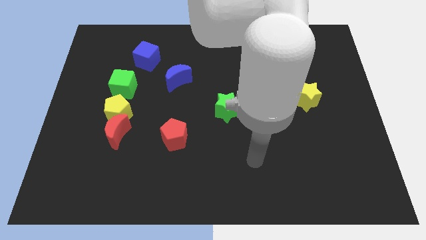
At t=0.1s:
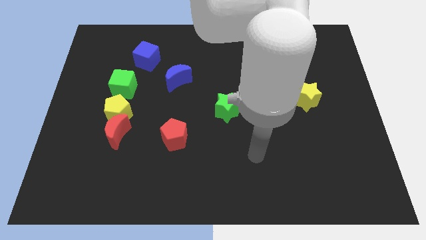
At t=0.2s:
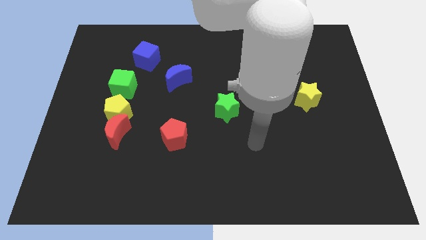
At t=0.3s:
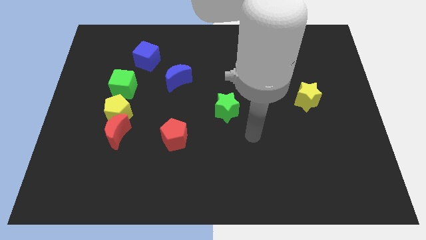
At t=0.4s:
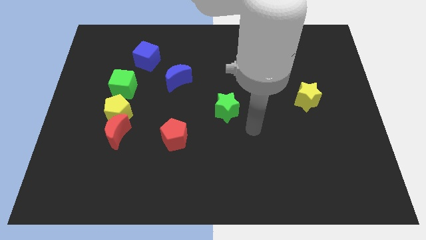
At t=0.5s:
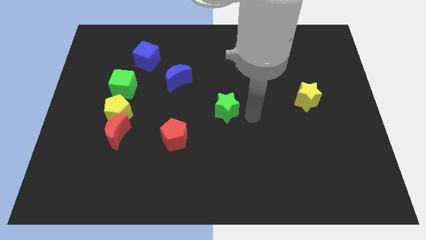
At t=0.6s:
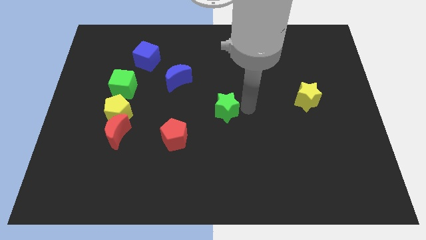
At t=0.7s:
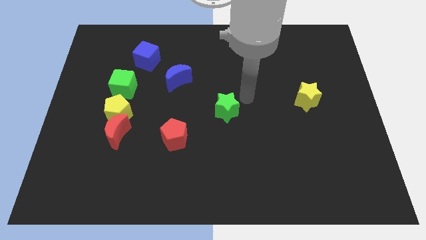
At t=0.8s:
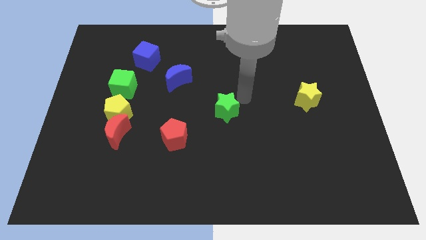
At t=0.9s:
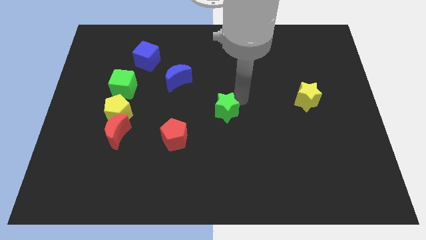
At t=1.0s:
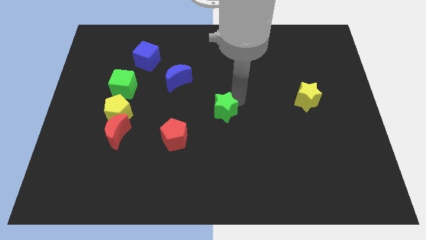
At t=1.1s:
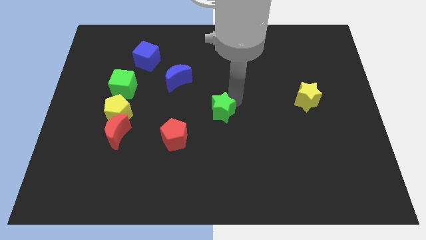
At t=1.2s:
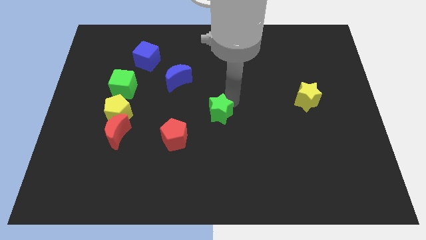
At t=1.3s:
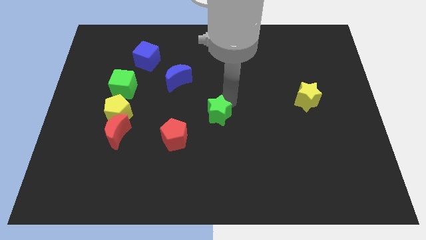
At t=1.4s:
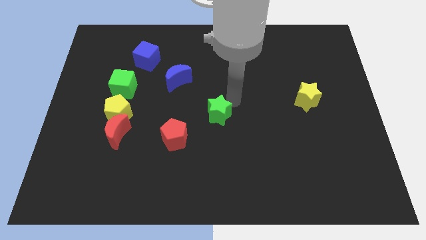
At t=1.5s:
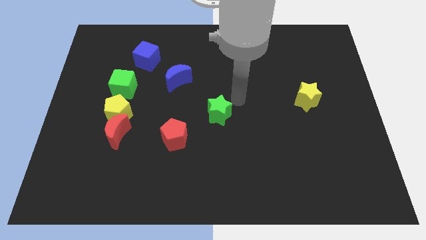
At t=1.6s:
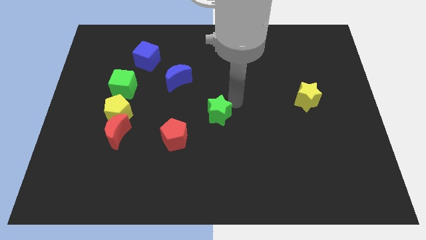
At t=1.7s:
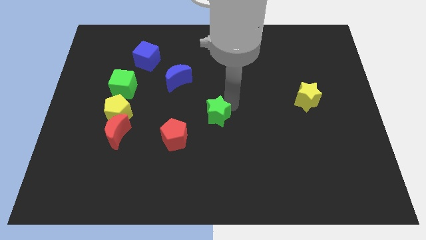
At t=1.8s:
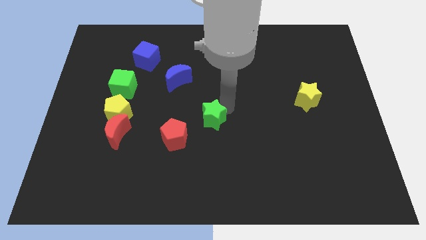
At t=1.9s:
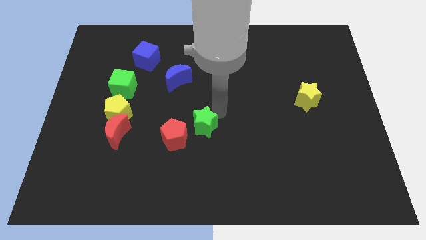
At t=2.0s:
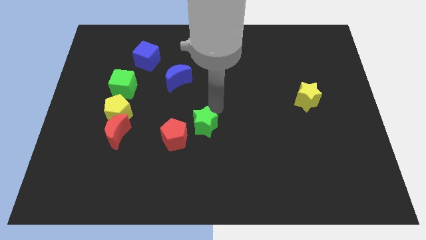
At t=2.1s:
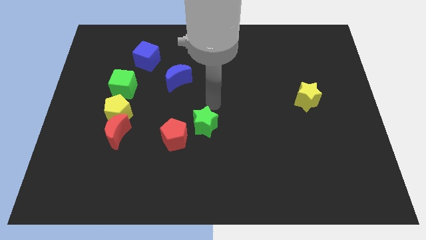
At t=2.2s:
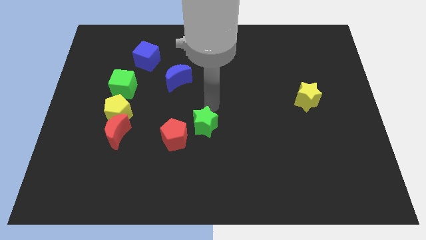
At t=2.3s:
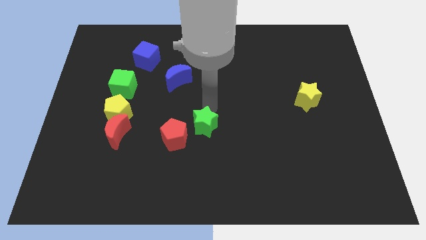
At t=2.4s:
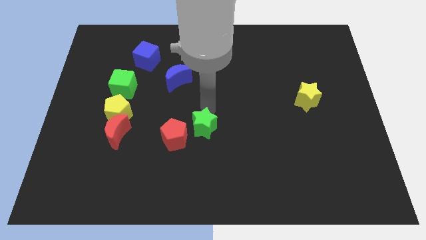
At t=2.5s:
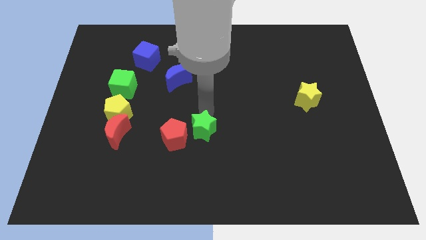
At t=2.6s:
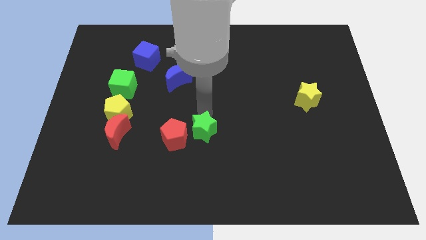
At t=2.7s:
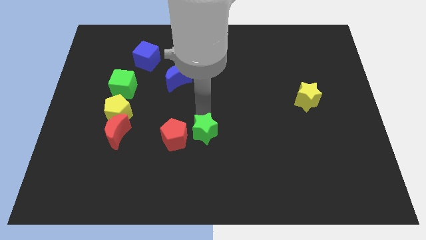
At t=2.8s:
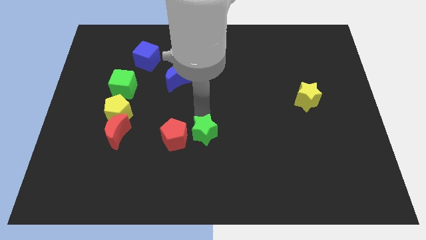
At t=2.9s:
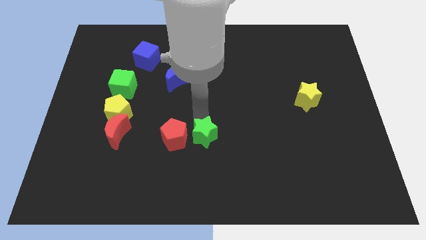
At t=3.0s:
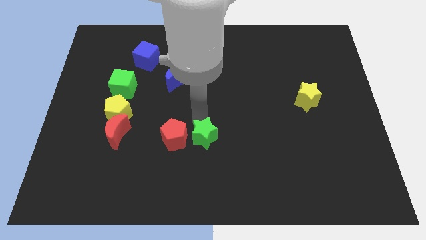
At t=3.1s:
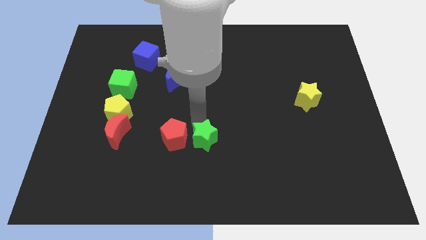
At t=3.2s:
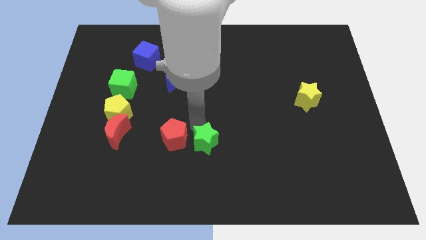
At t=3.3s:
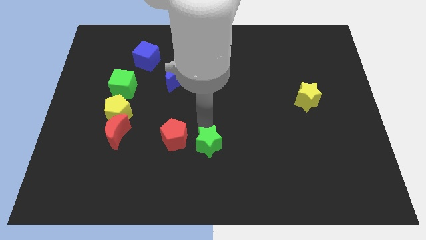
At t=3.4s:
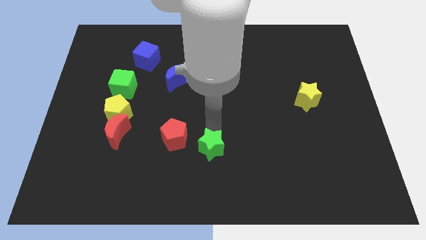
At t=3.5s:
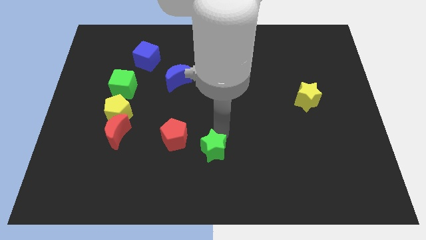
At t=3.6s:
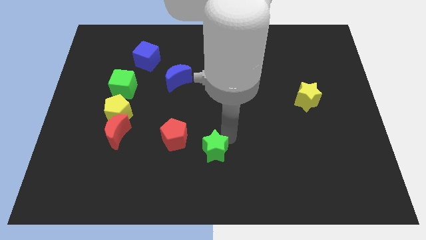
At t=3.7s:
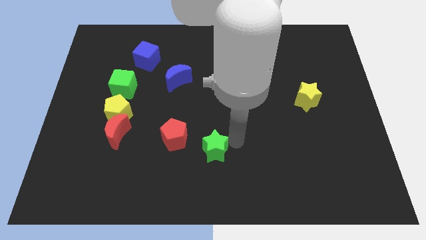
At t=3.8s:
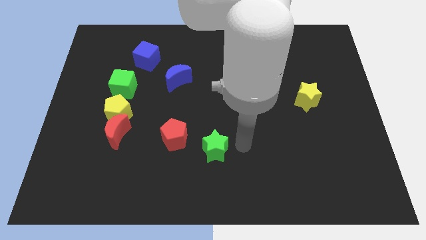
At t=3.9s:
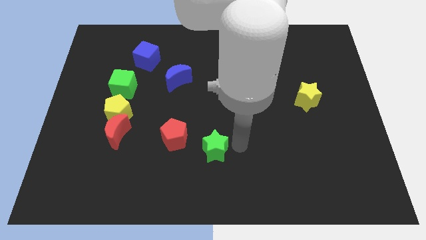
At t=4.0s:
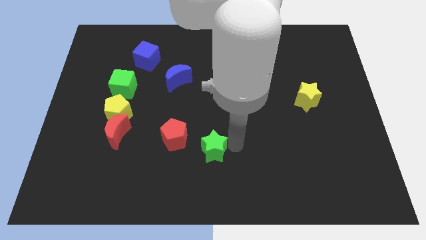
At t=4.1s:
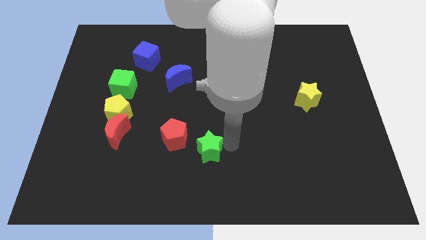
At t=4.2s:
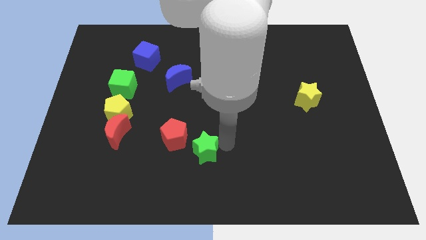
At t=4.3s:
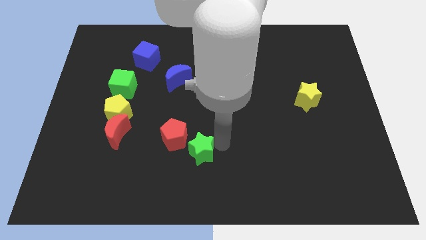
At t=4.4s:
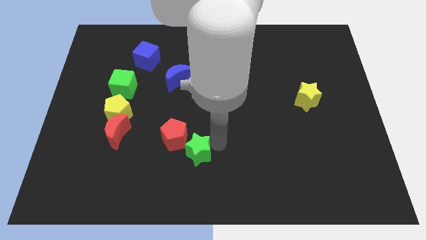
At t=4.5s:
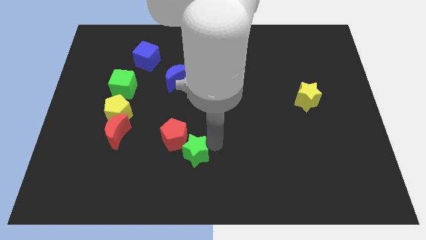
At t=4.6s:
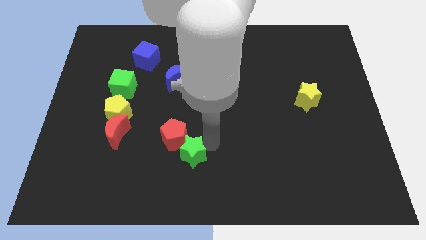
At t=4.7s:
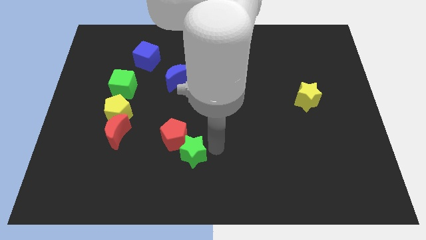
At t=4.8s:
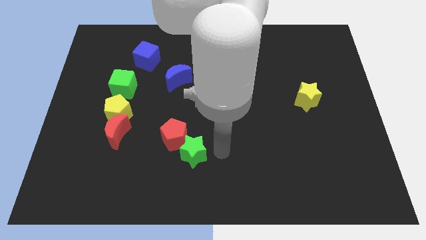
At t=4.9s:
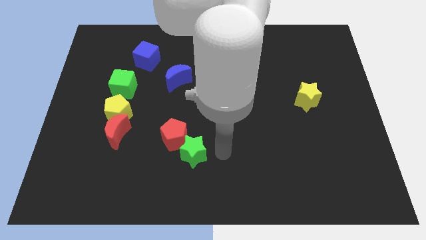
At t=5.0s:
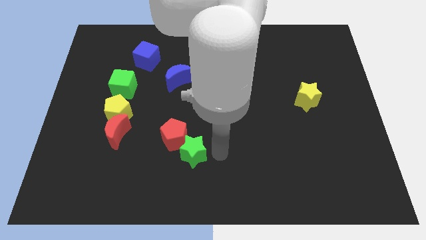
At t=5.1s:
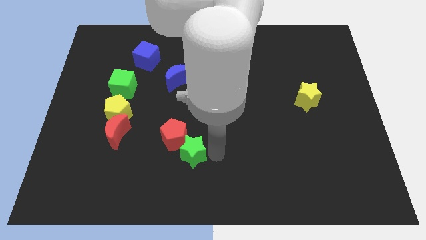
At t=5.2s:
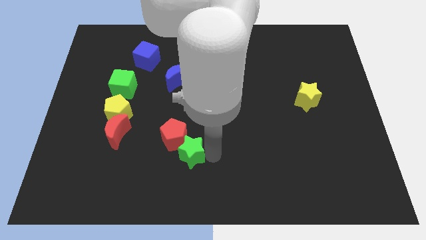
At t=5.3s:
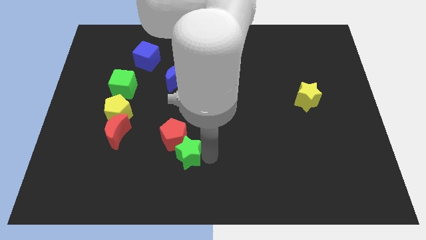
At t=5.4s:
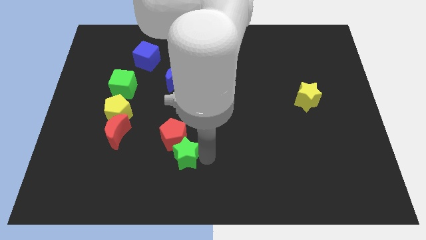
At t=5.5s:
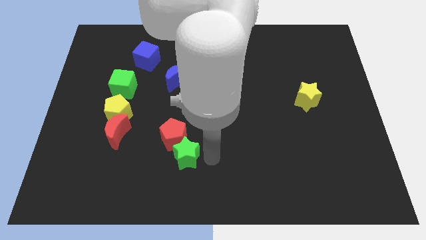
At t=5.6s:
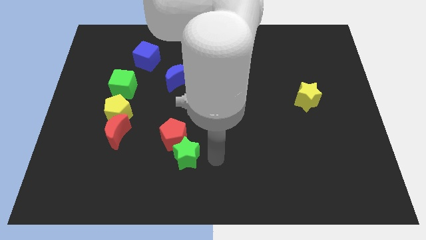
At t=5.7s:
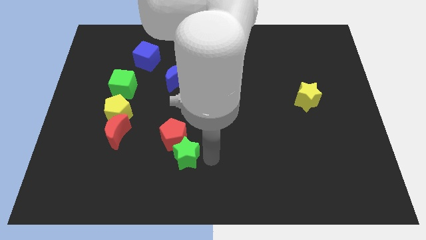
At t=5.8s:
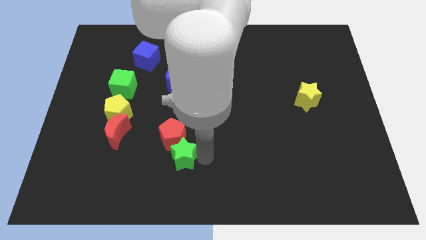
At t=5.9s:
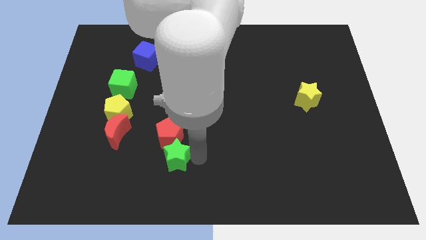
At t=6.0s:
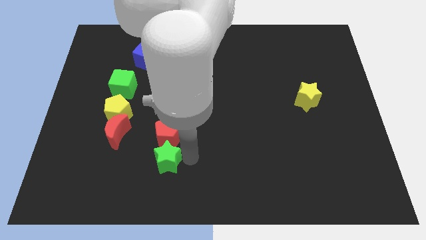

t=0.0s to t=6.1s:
slide the green star to the bottom left of the red pentagon

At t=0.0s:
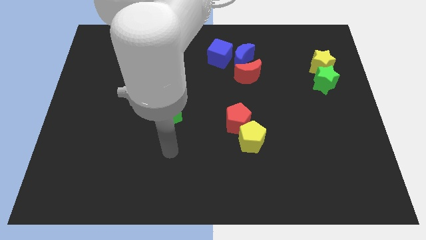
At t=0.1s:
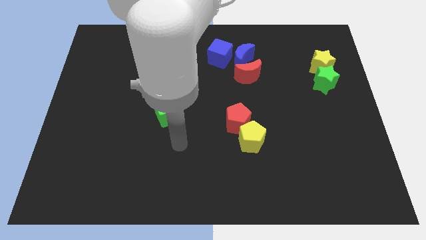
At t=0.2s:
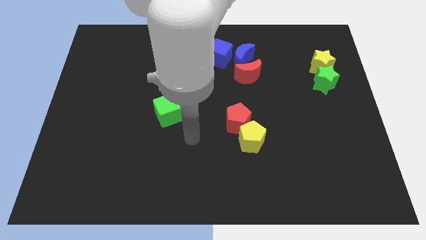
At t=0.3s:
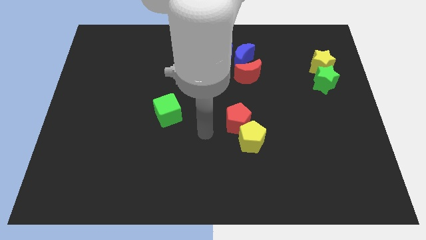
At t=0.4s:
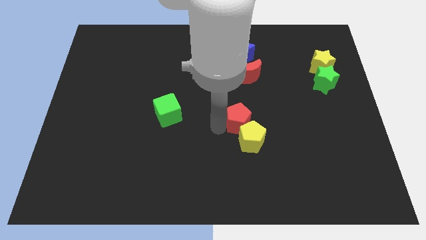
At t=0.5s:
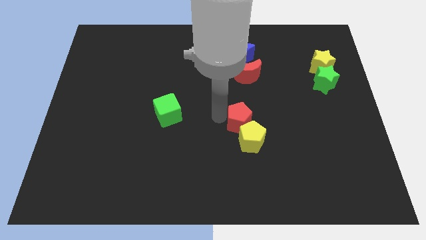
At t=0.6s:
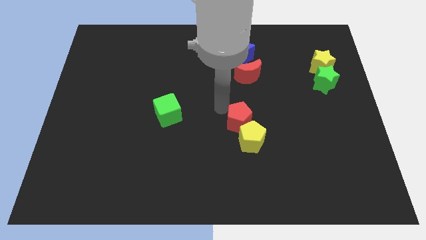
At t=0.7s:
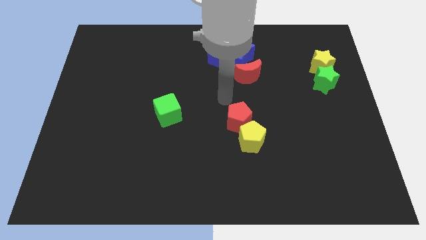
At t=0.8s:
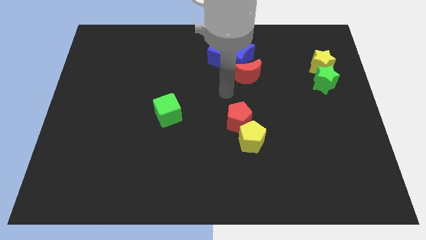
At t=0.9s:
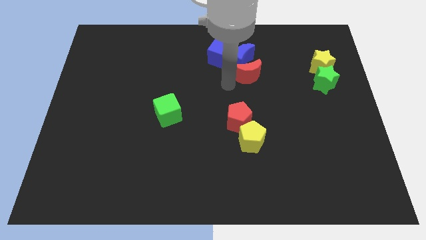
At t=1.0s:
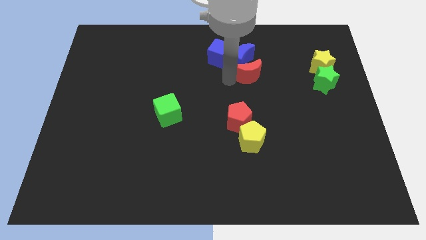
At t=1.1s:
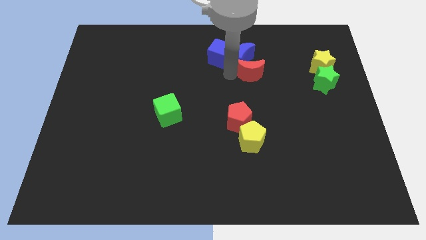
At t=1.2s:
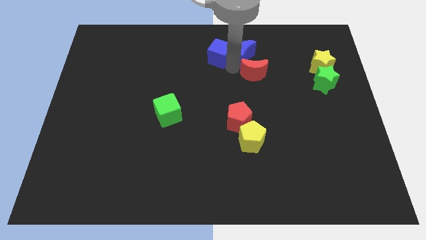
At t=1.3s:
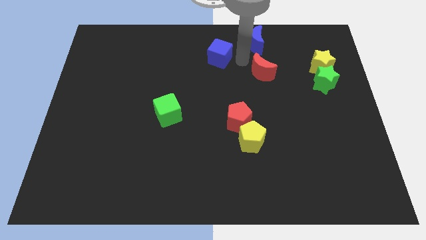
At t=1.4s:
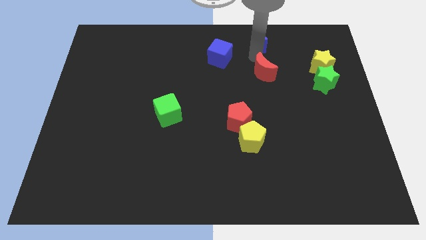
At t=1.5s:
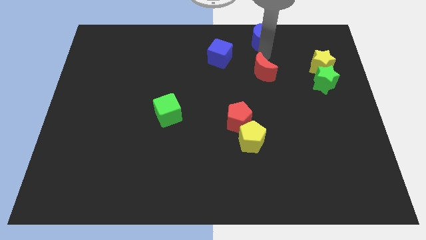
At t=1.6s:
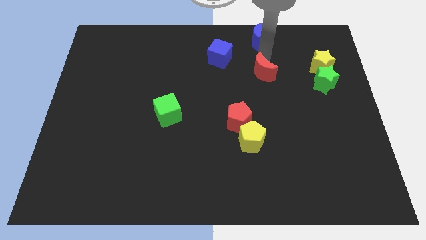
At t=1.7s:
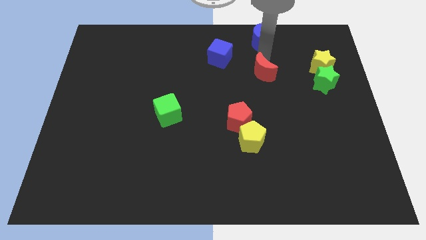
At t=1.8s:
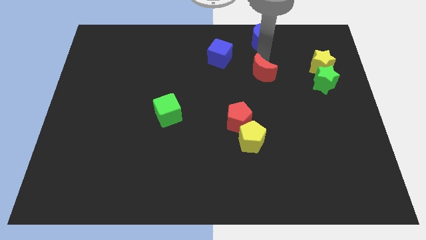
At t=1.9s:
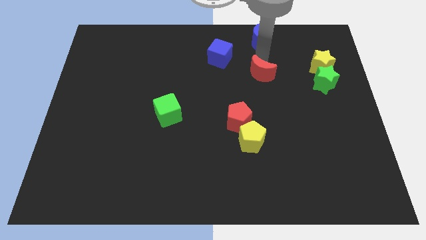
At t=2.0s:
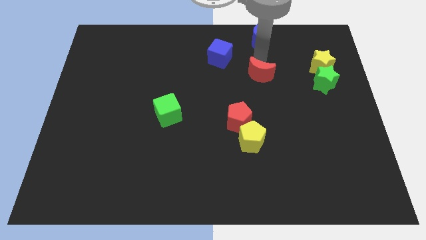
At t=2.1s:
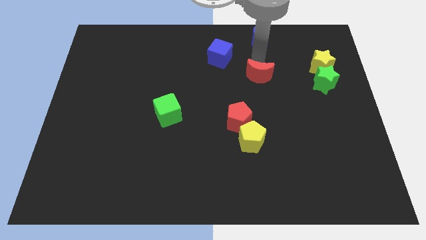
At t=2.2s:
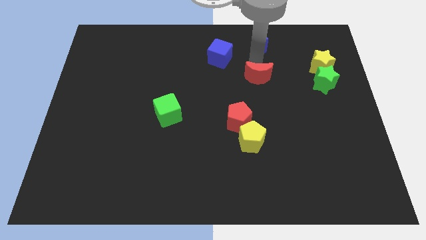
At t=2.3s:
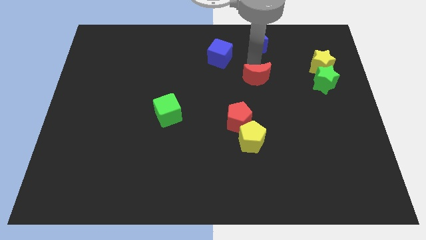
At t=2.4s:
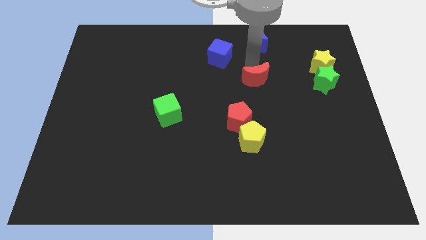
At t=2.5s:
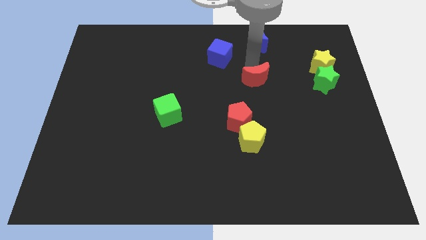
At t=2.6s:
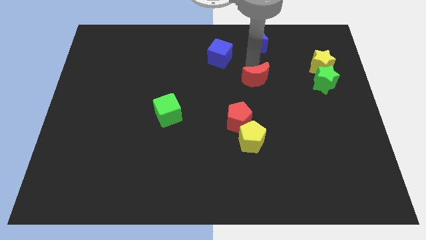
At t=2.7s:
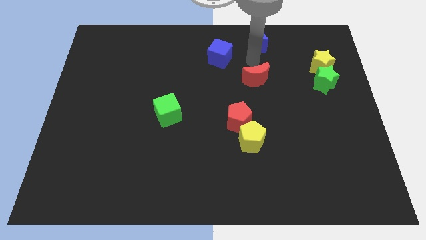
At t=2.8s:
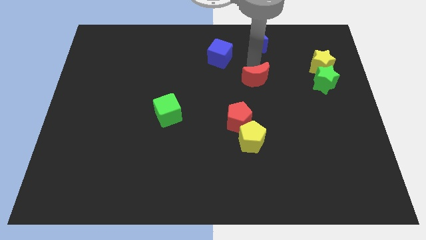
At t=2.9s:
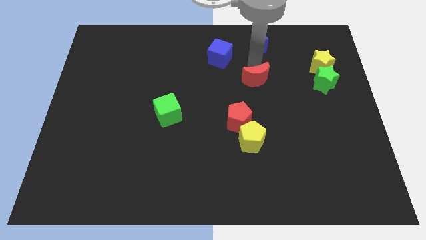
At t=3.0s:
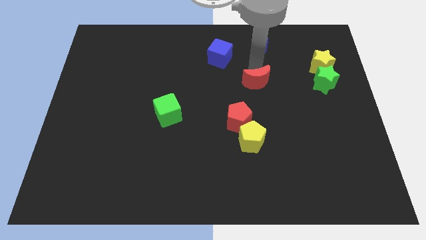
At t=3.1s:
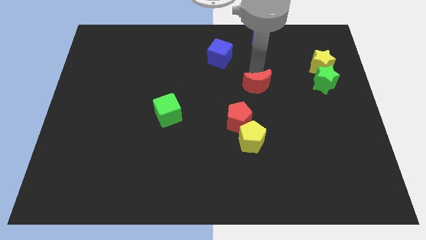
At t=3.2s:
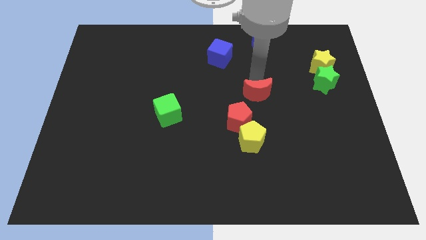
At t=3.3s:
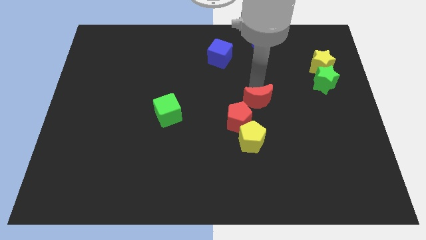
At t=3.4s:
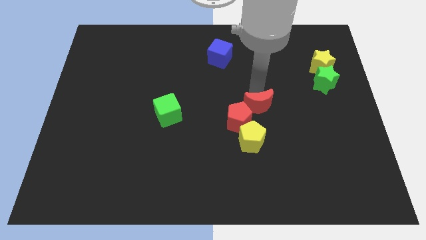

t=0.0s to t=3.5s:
slide the red moon to the top right of the yellow pentagon
